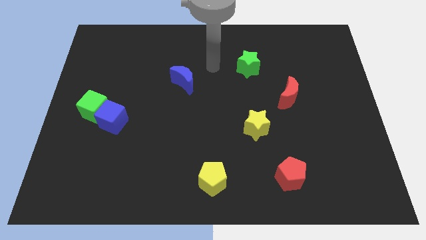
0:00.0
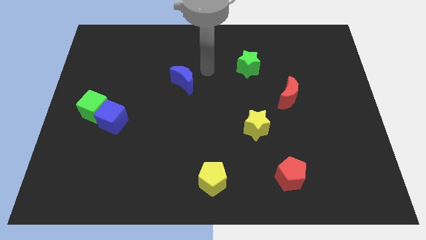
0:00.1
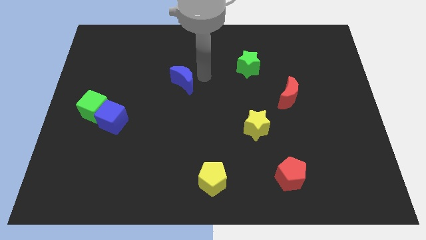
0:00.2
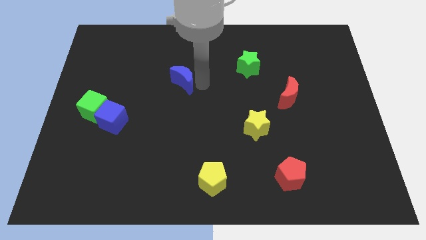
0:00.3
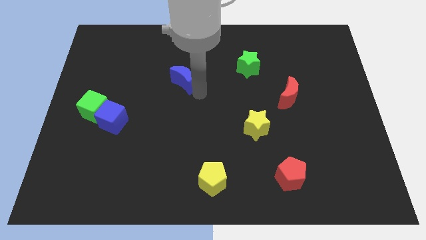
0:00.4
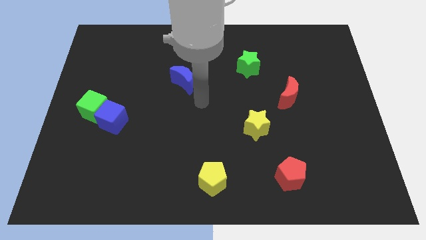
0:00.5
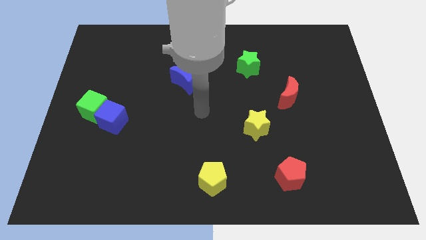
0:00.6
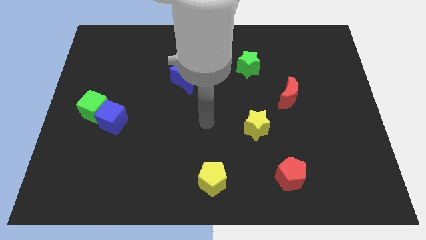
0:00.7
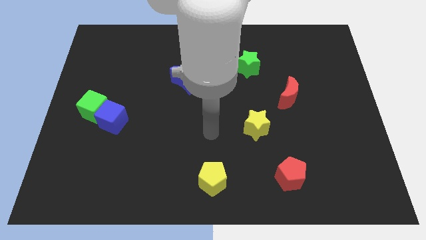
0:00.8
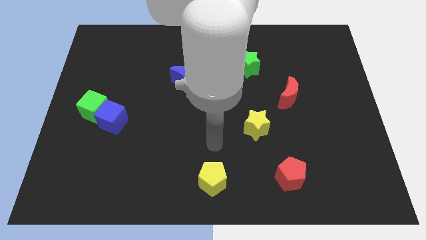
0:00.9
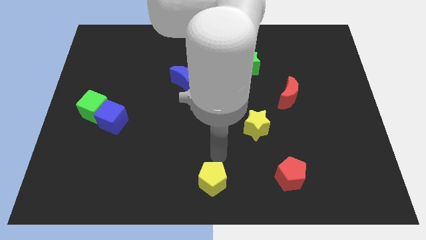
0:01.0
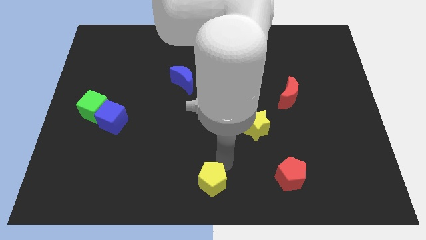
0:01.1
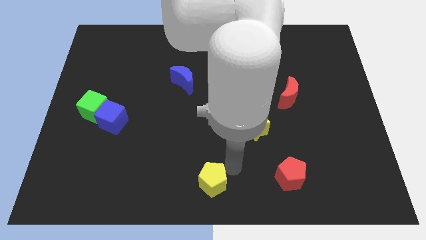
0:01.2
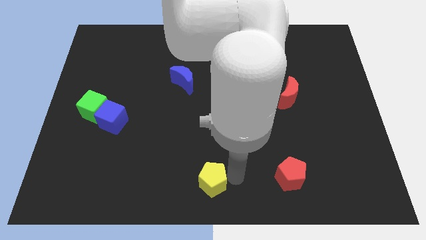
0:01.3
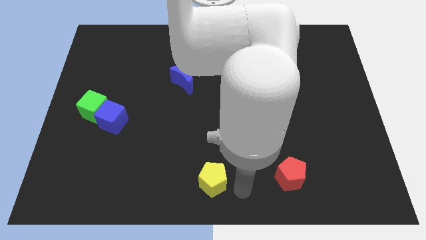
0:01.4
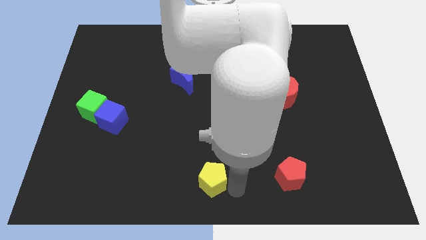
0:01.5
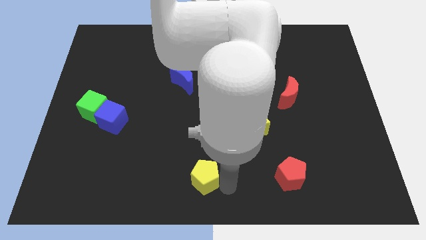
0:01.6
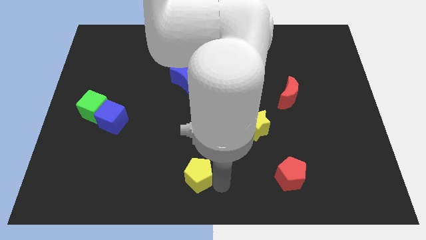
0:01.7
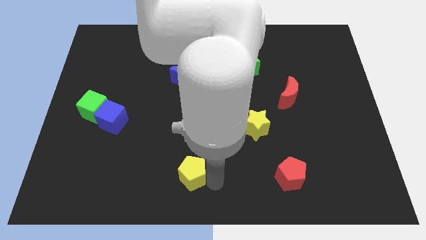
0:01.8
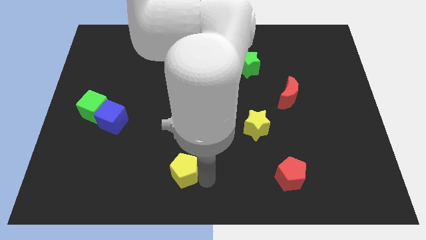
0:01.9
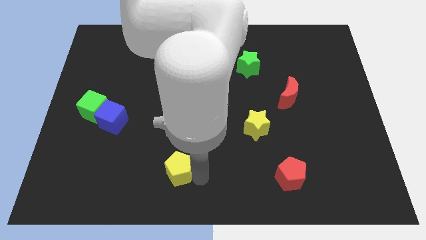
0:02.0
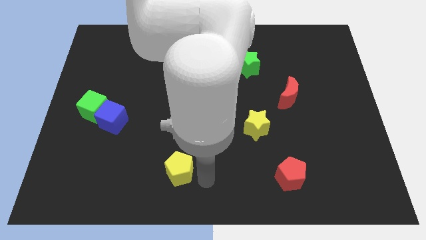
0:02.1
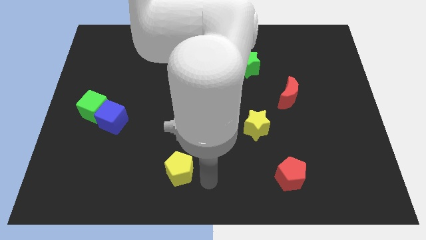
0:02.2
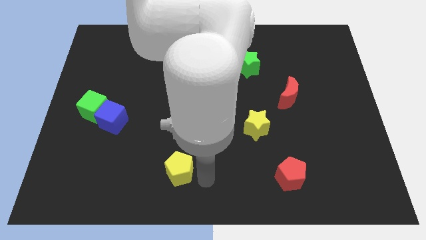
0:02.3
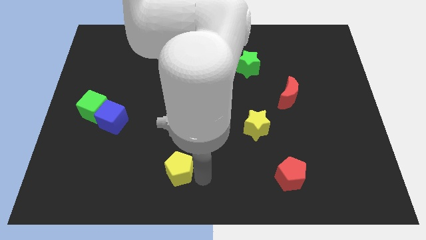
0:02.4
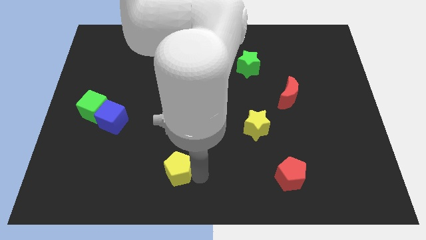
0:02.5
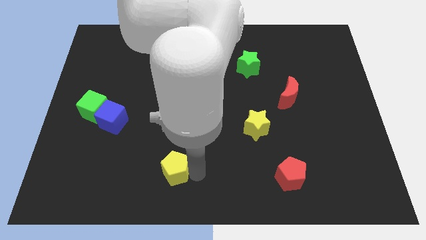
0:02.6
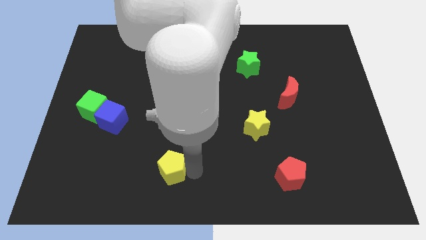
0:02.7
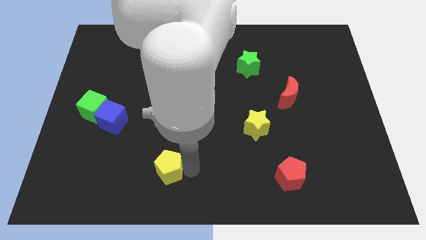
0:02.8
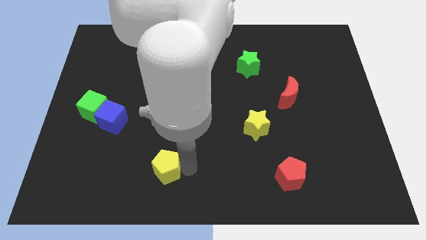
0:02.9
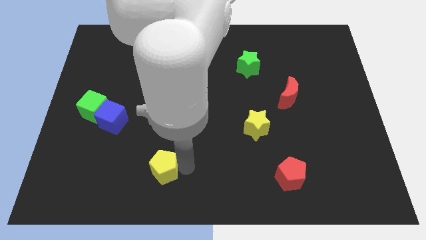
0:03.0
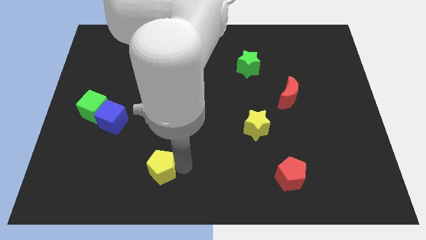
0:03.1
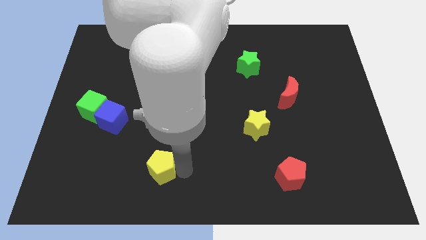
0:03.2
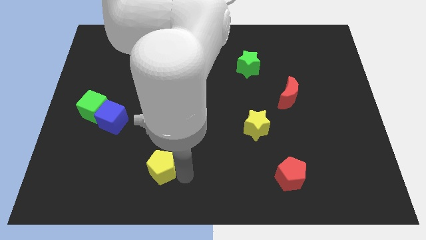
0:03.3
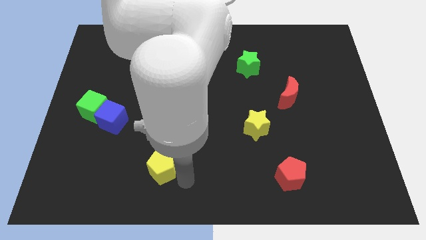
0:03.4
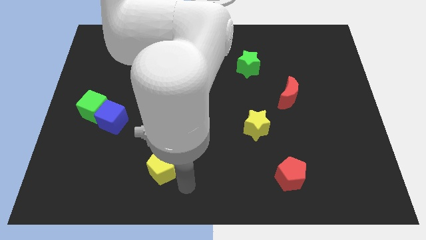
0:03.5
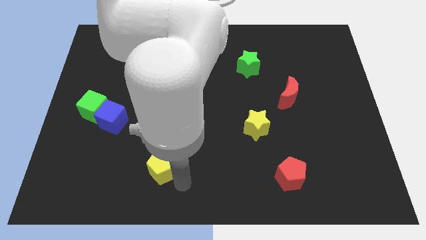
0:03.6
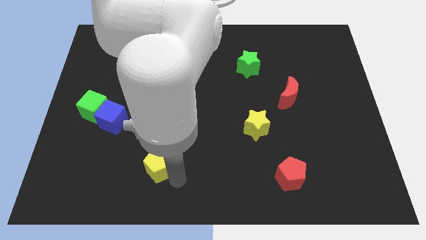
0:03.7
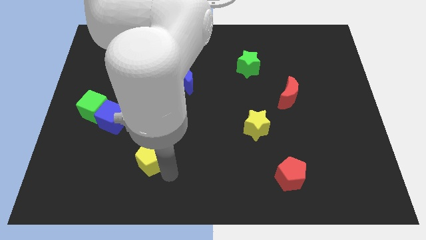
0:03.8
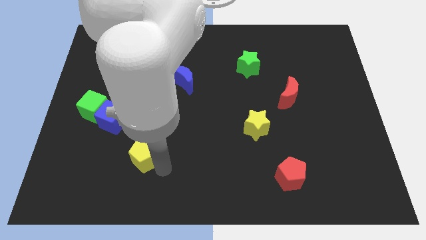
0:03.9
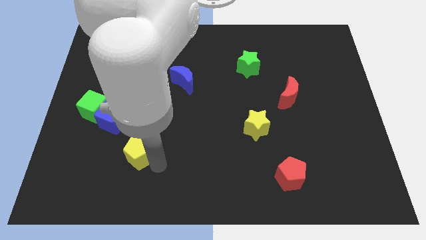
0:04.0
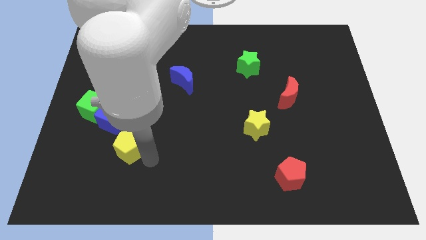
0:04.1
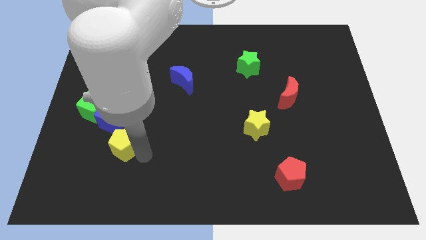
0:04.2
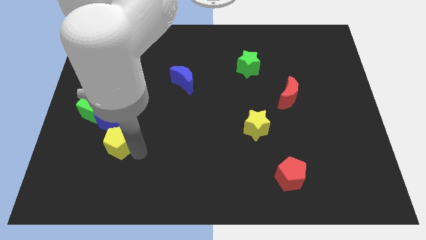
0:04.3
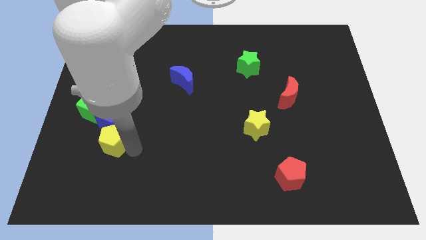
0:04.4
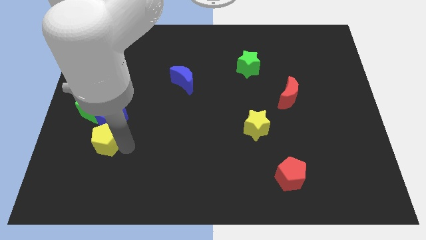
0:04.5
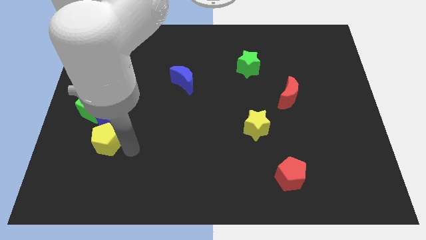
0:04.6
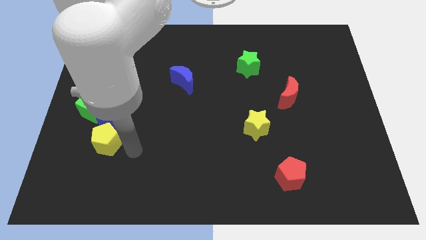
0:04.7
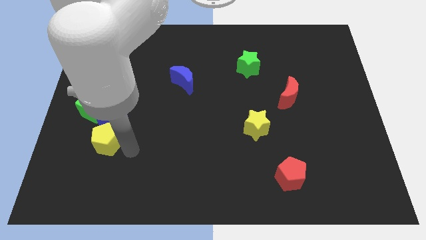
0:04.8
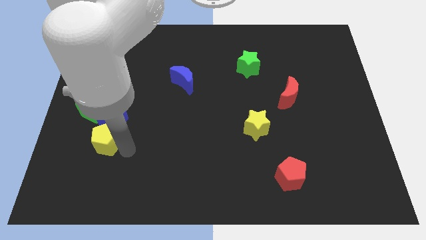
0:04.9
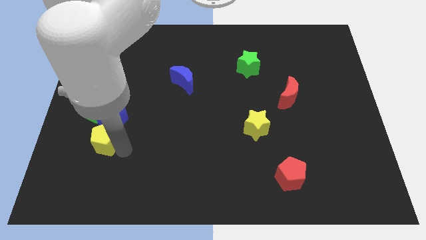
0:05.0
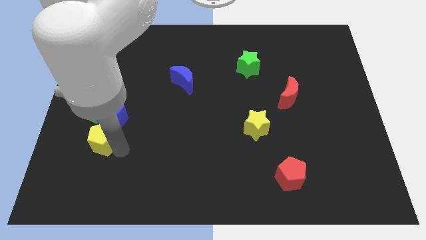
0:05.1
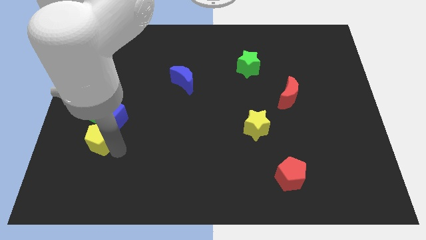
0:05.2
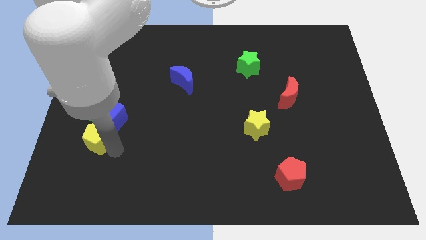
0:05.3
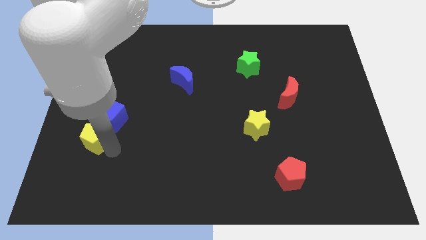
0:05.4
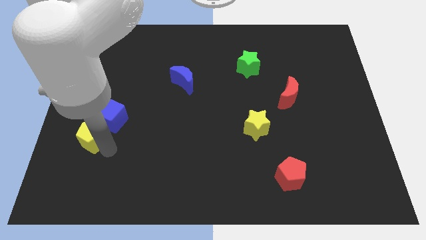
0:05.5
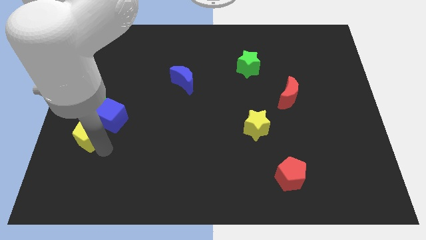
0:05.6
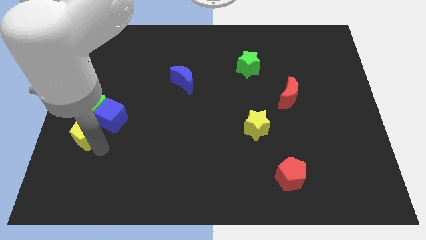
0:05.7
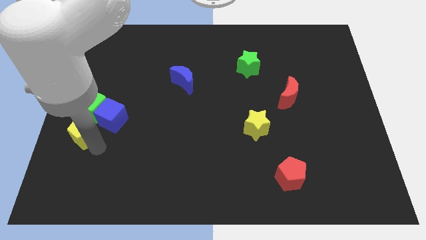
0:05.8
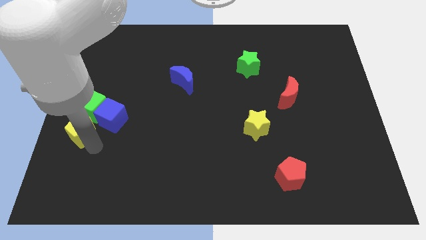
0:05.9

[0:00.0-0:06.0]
push the yellow pentagon to the center left

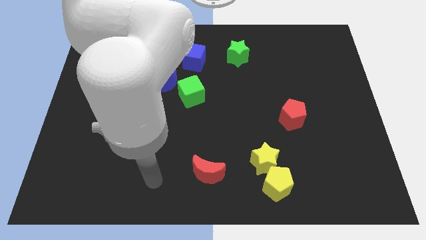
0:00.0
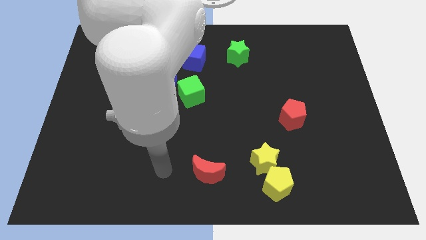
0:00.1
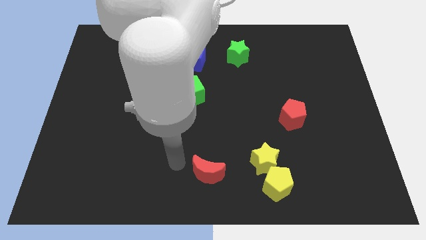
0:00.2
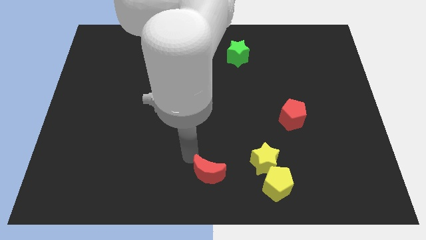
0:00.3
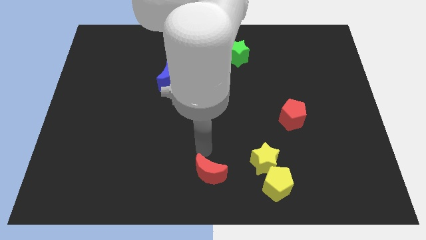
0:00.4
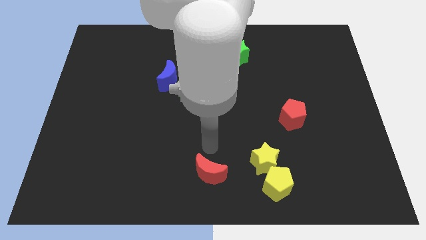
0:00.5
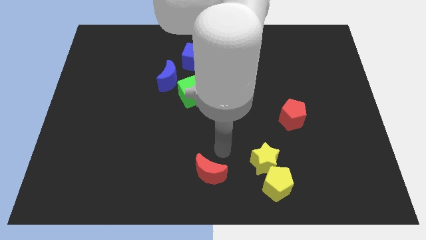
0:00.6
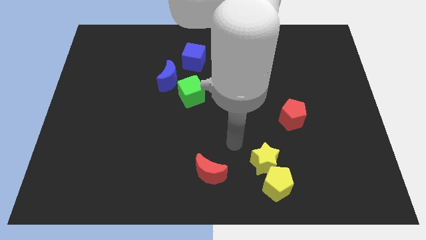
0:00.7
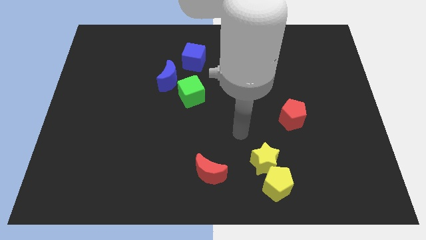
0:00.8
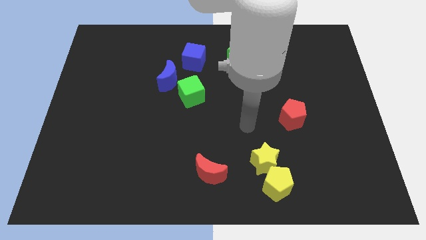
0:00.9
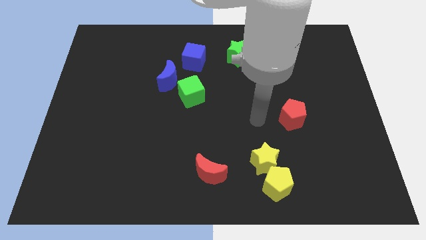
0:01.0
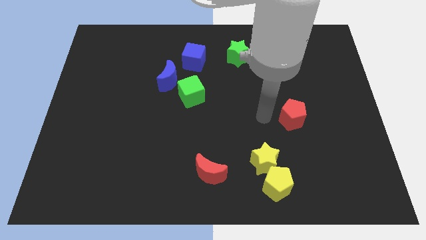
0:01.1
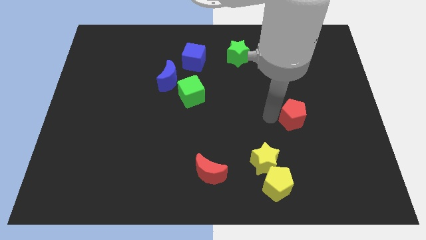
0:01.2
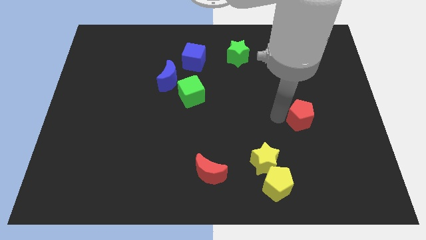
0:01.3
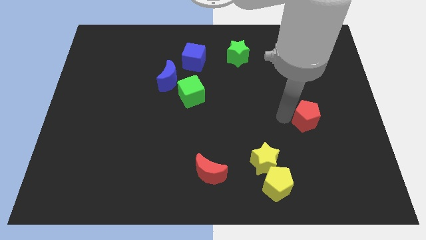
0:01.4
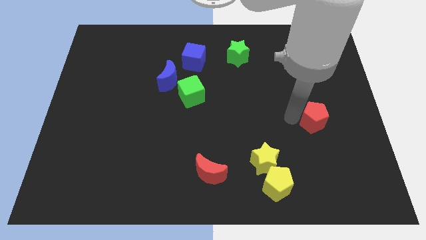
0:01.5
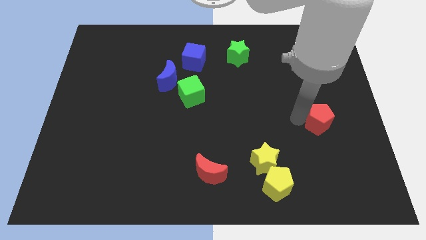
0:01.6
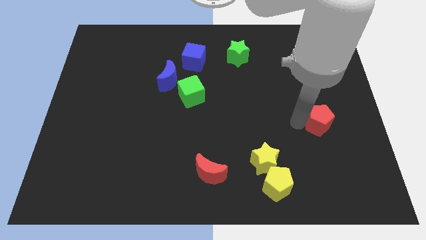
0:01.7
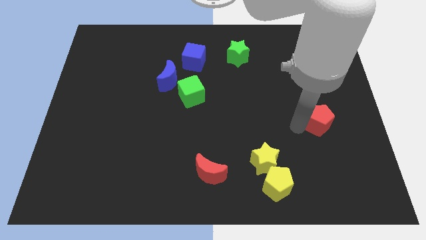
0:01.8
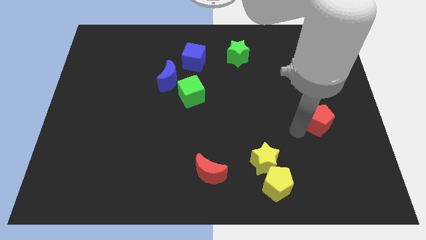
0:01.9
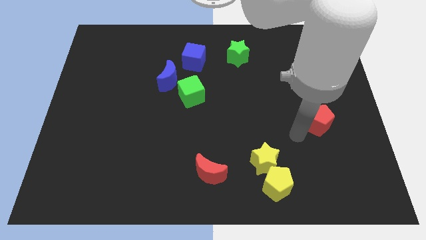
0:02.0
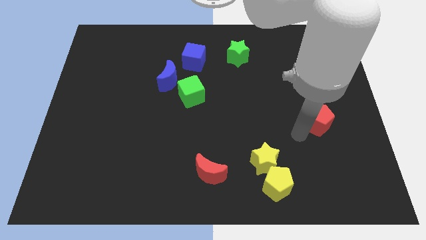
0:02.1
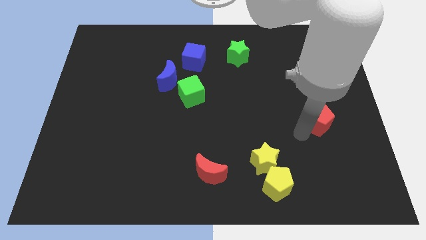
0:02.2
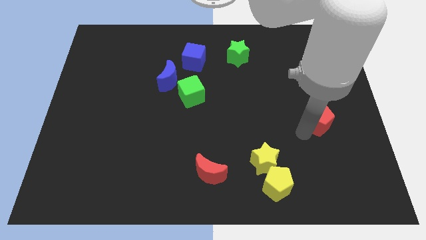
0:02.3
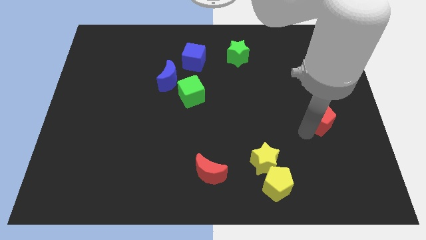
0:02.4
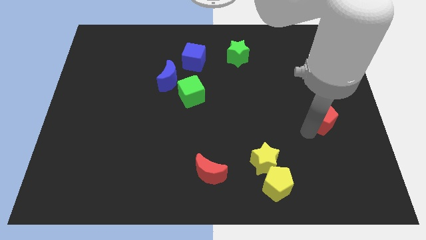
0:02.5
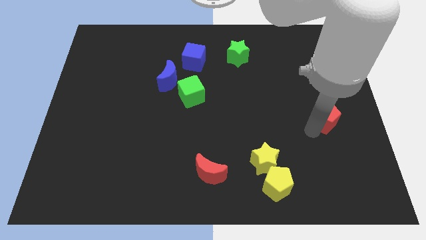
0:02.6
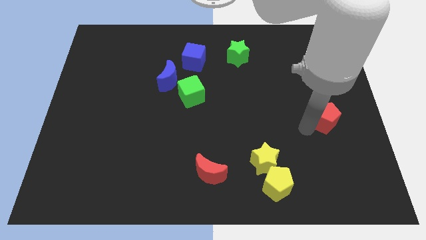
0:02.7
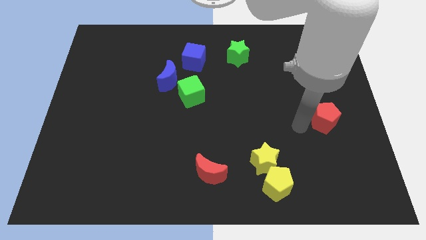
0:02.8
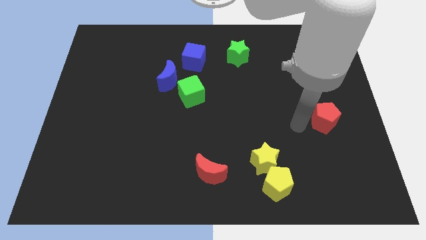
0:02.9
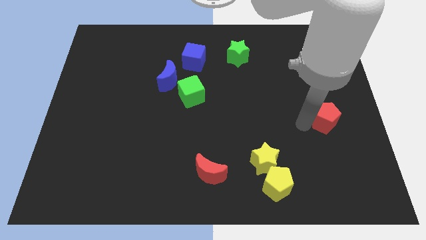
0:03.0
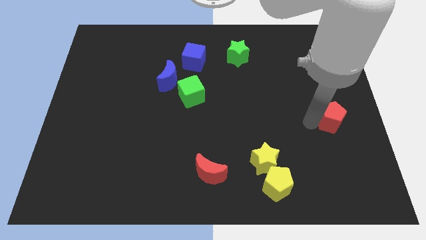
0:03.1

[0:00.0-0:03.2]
put the red pentagon to the center right
